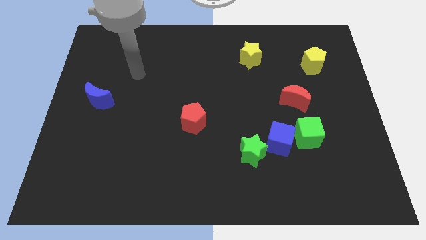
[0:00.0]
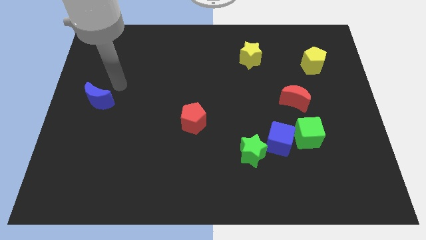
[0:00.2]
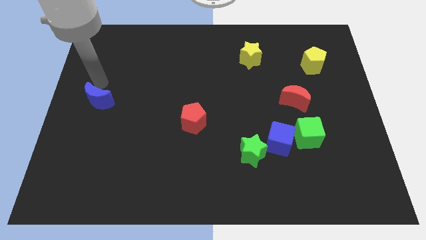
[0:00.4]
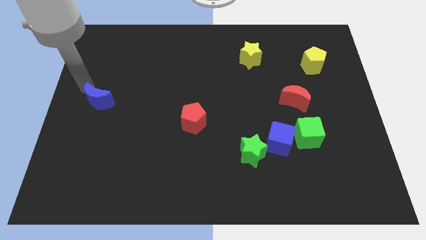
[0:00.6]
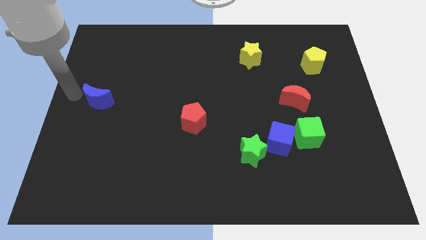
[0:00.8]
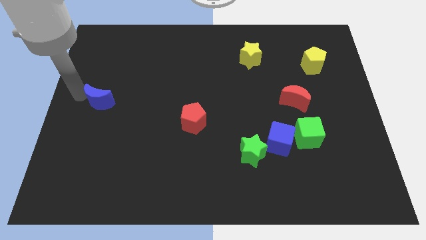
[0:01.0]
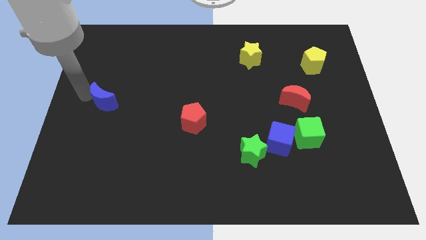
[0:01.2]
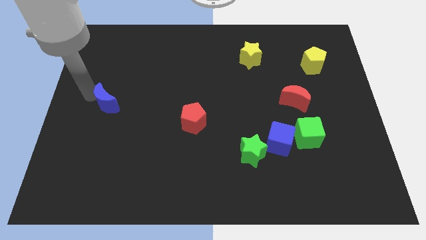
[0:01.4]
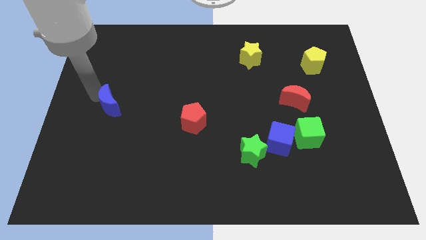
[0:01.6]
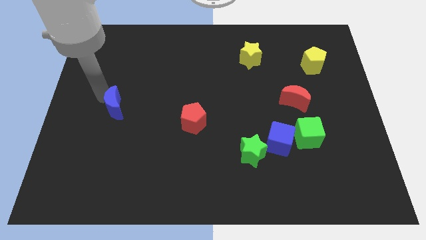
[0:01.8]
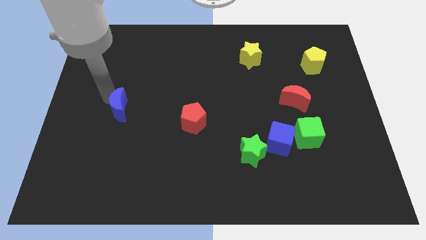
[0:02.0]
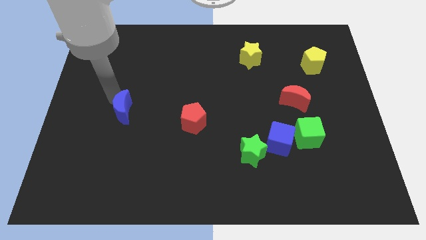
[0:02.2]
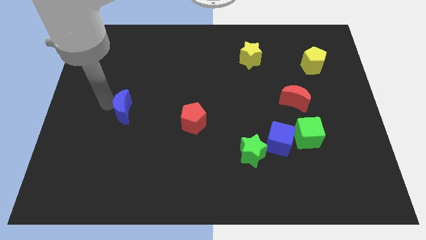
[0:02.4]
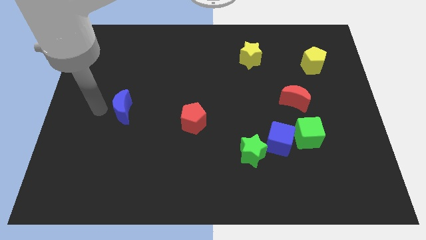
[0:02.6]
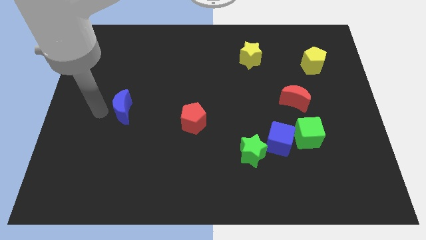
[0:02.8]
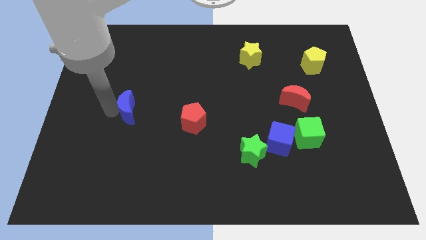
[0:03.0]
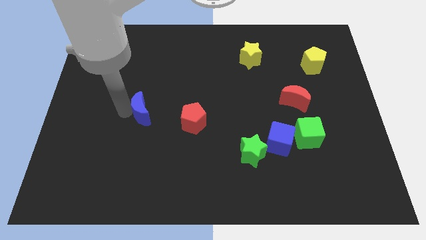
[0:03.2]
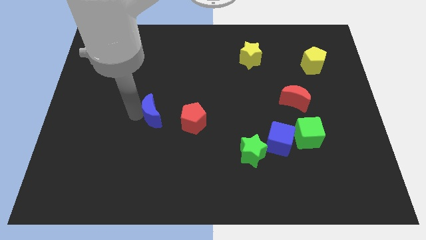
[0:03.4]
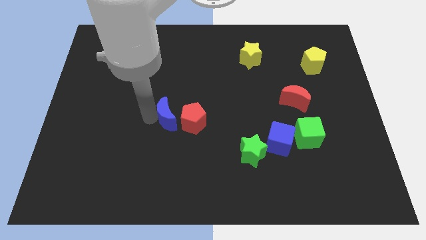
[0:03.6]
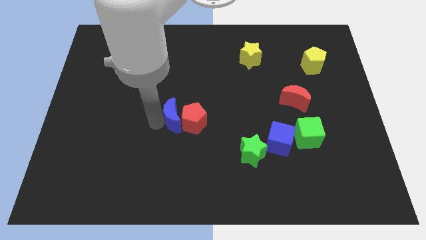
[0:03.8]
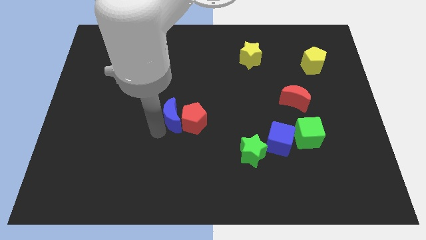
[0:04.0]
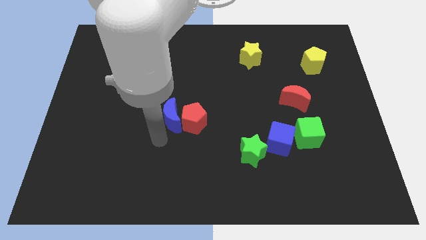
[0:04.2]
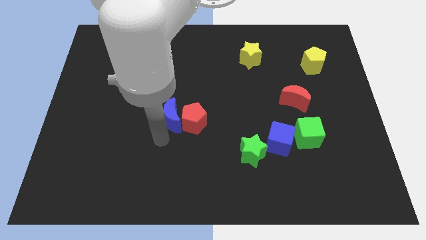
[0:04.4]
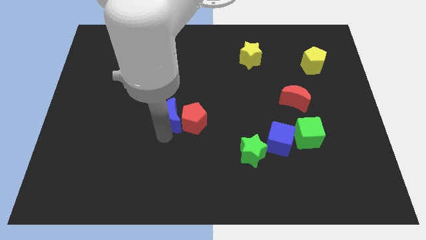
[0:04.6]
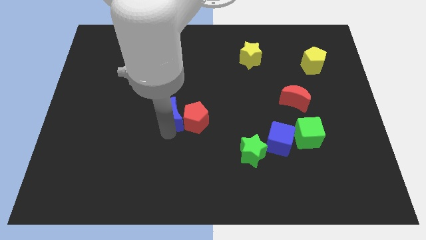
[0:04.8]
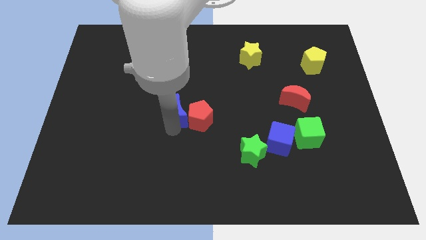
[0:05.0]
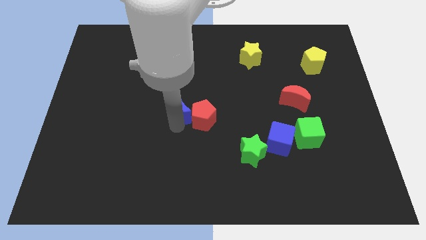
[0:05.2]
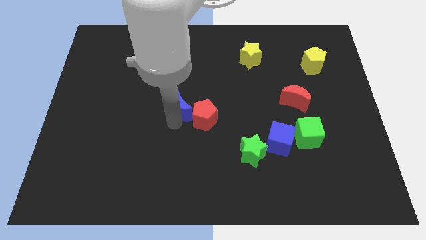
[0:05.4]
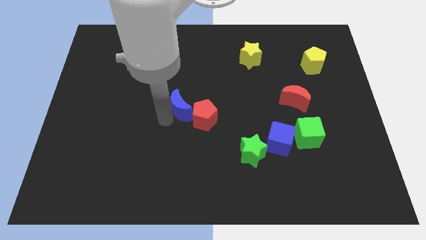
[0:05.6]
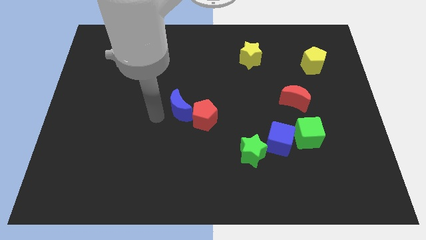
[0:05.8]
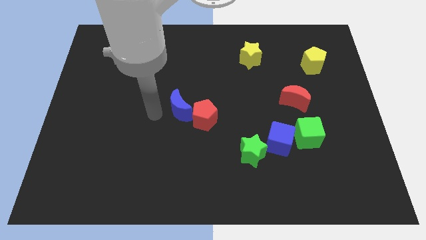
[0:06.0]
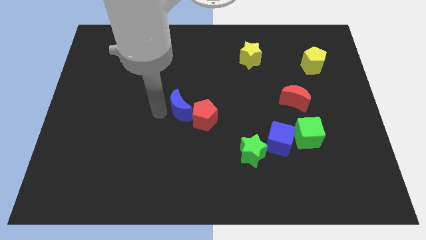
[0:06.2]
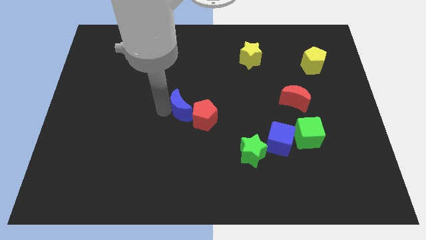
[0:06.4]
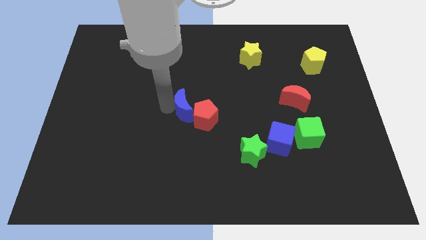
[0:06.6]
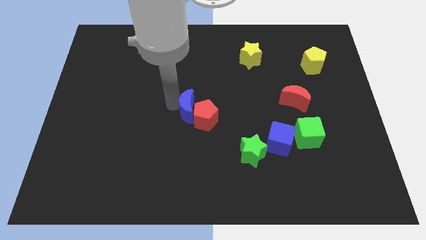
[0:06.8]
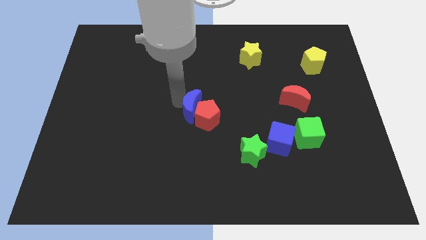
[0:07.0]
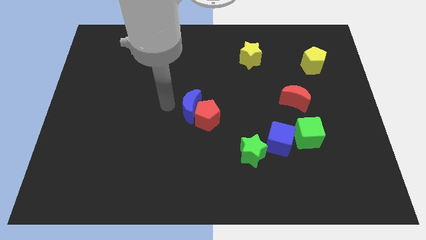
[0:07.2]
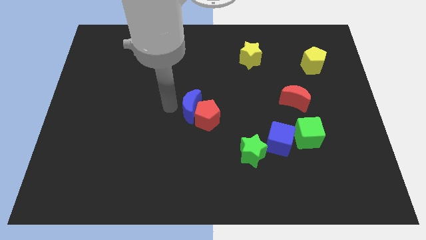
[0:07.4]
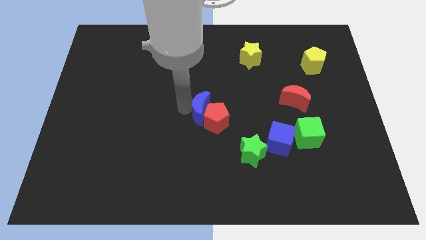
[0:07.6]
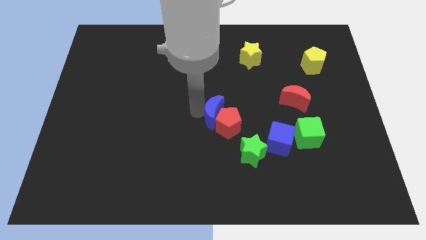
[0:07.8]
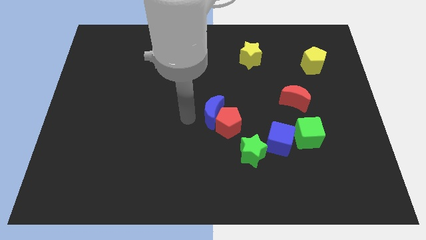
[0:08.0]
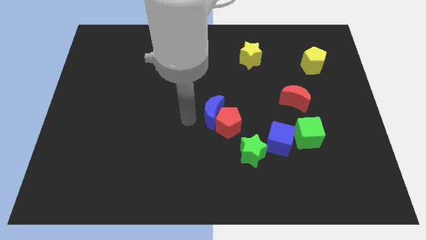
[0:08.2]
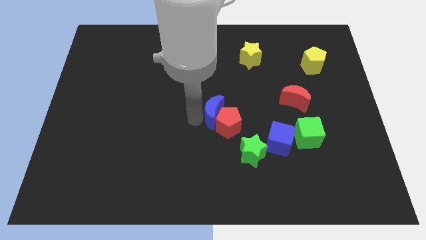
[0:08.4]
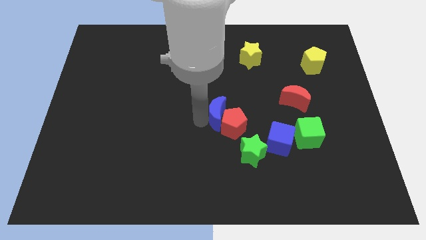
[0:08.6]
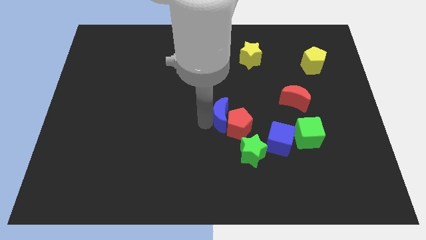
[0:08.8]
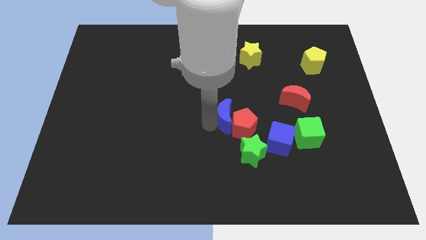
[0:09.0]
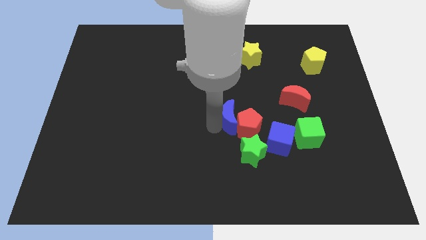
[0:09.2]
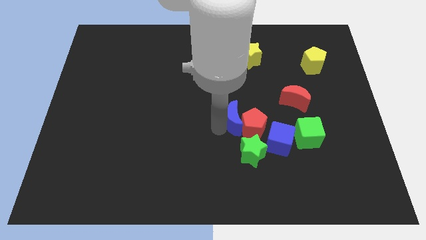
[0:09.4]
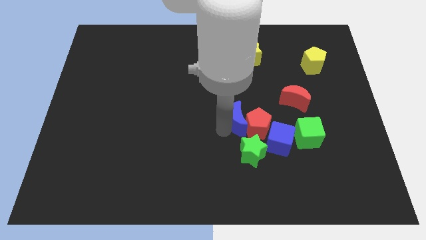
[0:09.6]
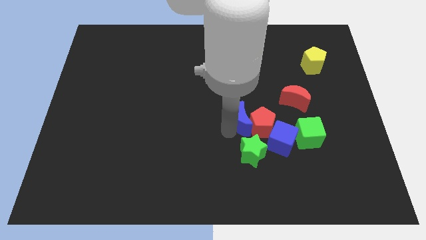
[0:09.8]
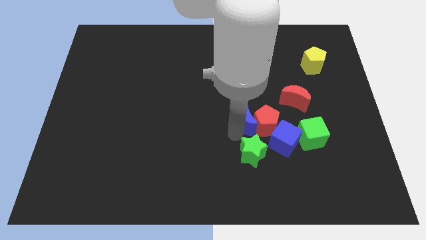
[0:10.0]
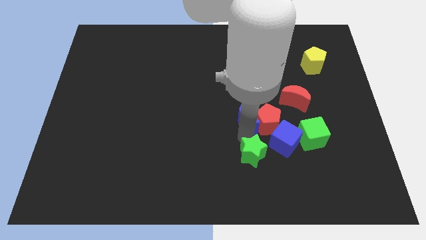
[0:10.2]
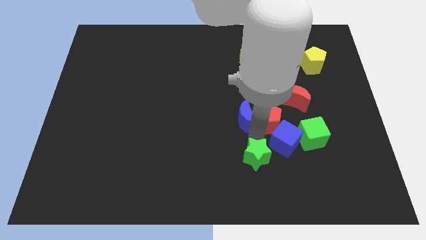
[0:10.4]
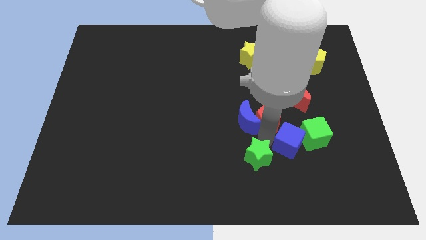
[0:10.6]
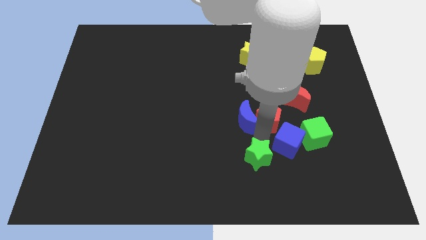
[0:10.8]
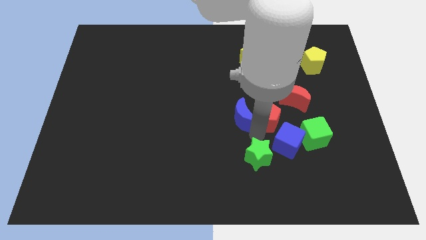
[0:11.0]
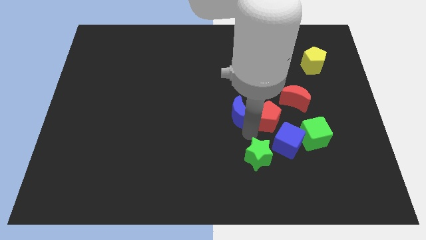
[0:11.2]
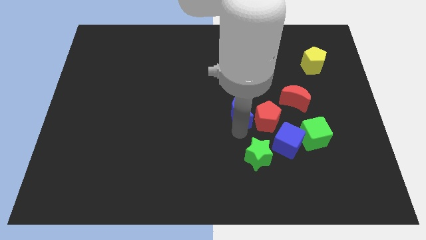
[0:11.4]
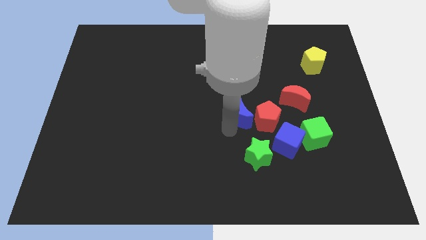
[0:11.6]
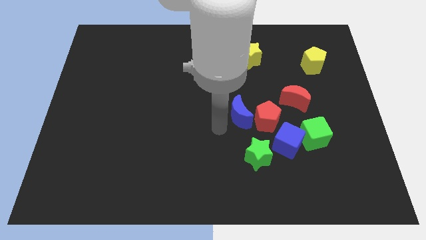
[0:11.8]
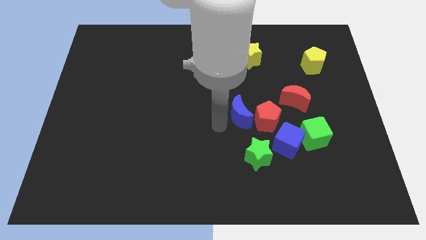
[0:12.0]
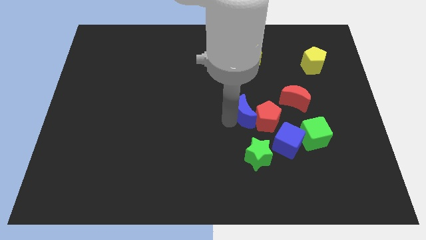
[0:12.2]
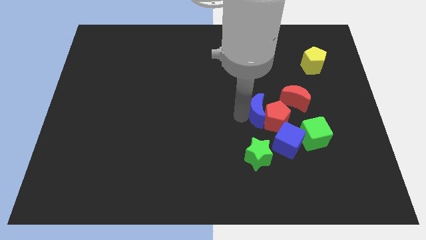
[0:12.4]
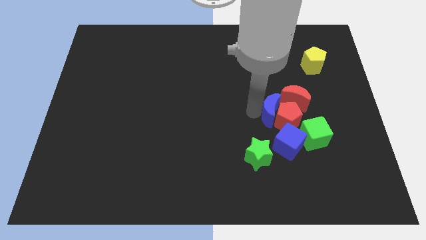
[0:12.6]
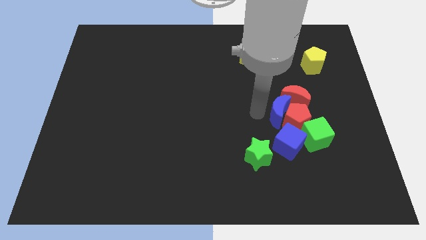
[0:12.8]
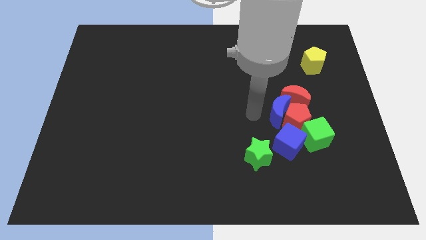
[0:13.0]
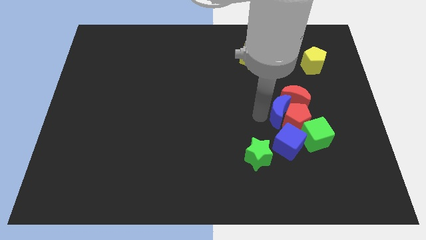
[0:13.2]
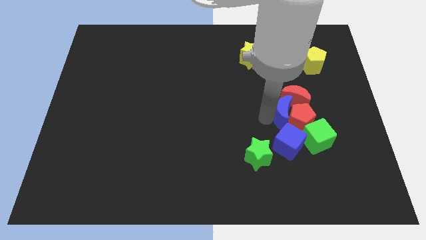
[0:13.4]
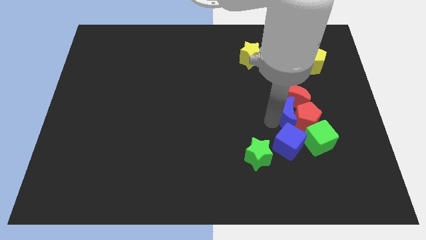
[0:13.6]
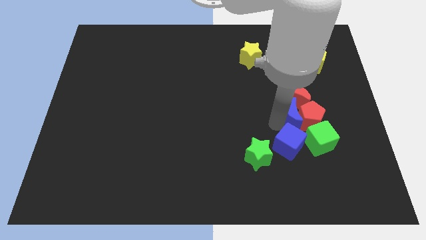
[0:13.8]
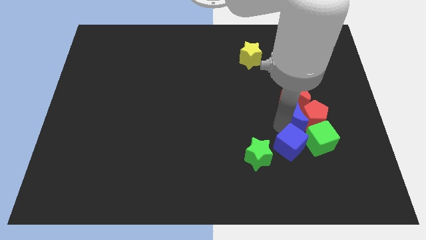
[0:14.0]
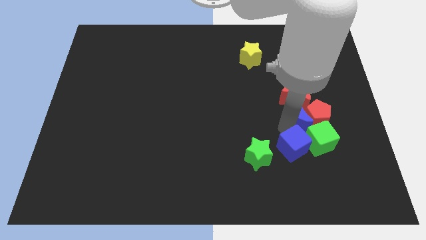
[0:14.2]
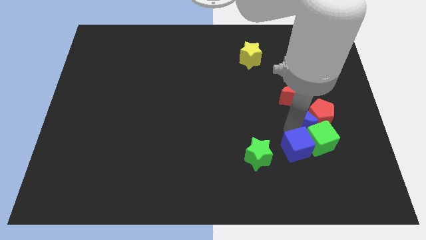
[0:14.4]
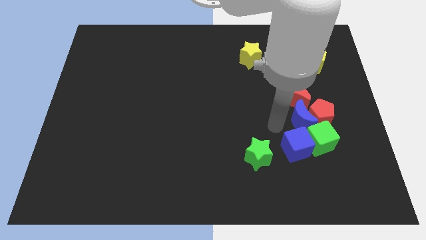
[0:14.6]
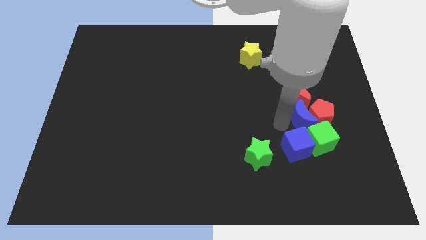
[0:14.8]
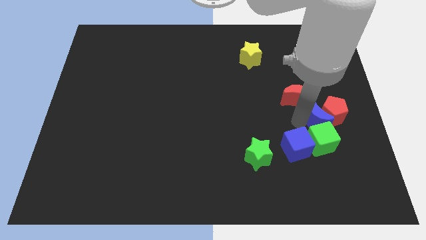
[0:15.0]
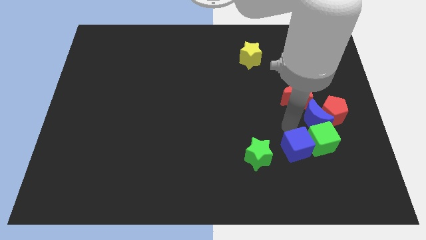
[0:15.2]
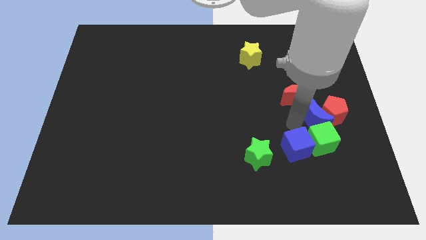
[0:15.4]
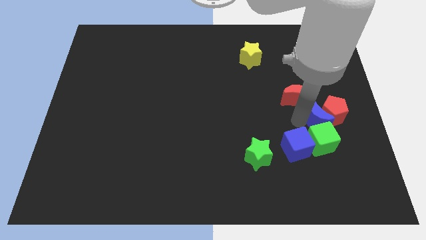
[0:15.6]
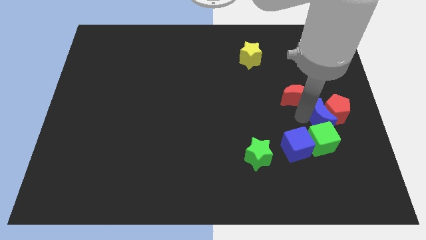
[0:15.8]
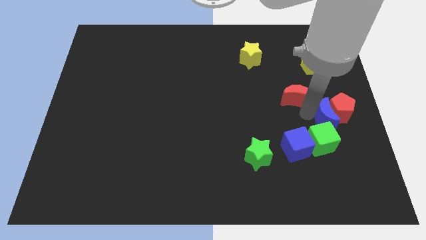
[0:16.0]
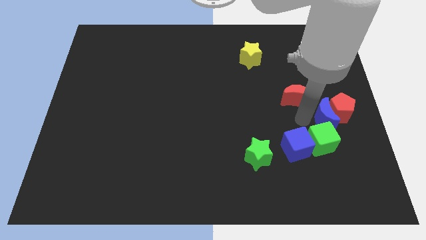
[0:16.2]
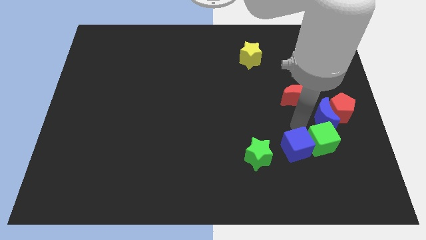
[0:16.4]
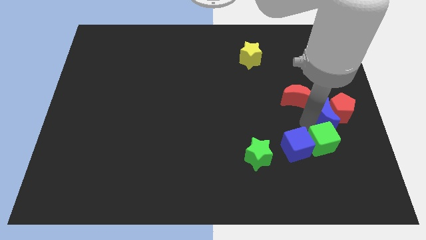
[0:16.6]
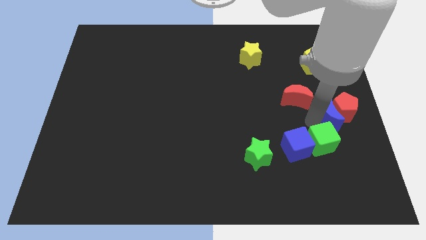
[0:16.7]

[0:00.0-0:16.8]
slide the blue moon to the right side
